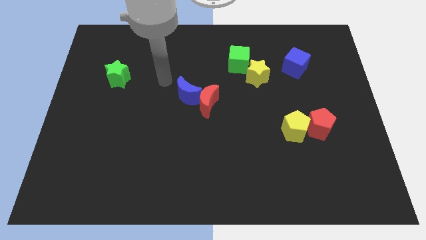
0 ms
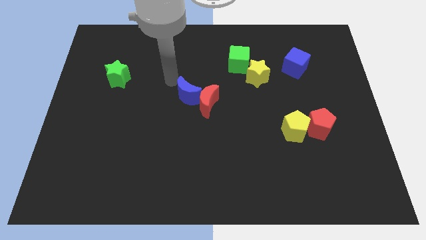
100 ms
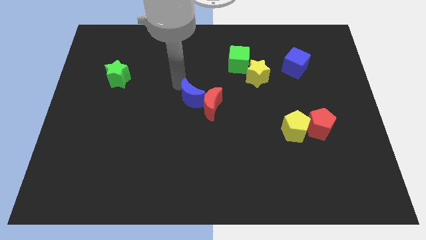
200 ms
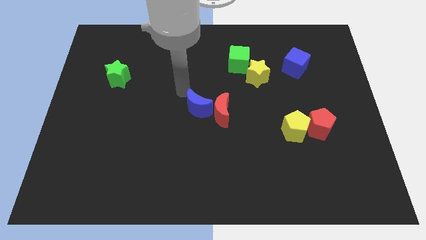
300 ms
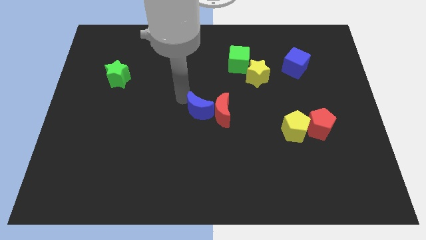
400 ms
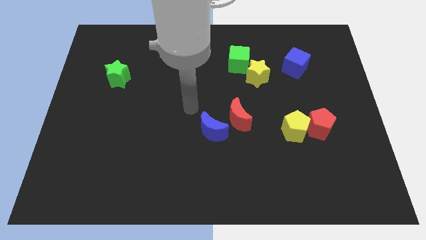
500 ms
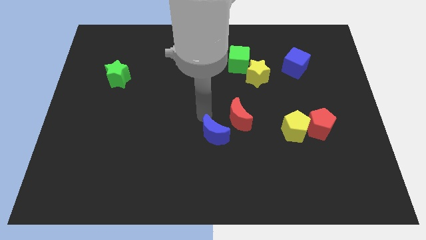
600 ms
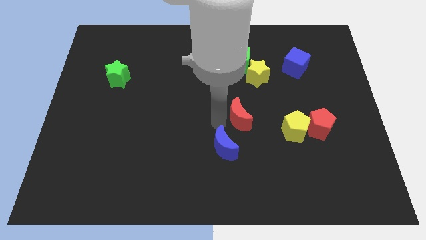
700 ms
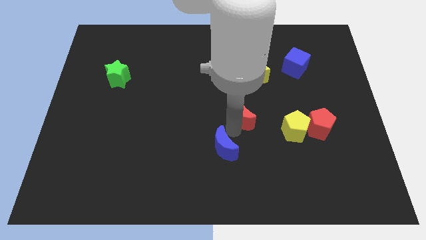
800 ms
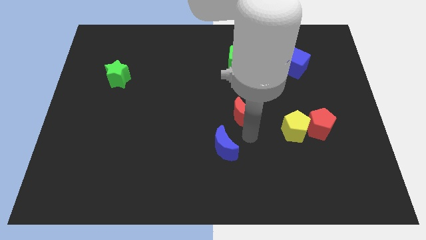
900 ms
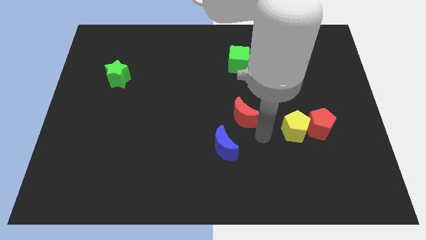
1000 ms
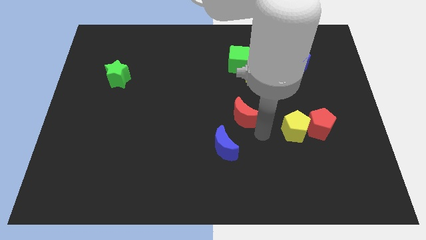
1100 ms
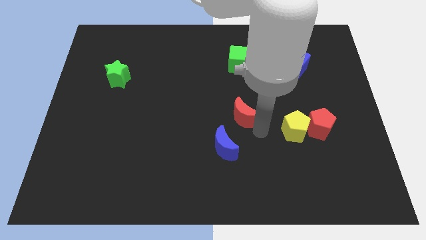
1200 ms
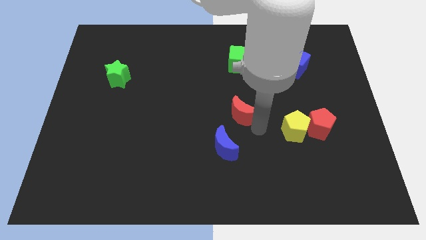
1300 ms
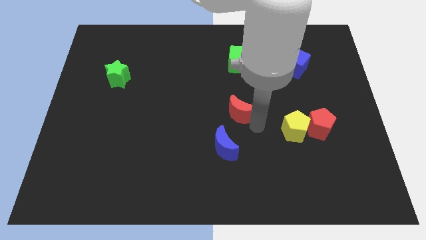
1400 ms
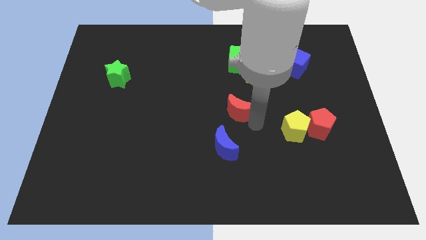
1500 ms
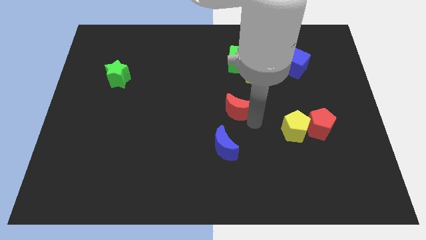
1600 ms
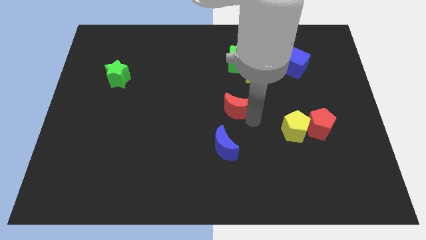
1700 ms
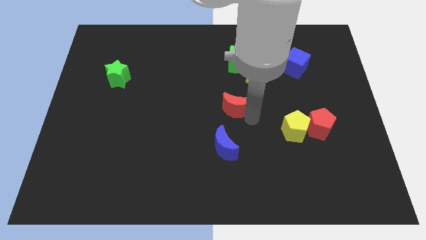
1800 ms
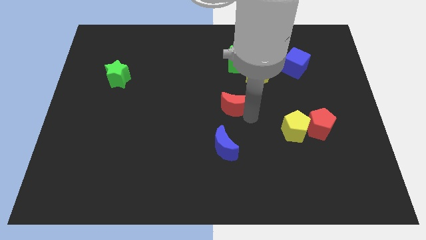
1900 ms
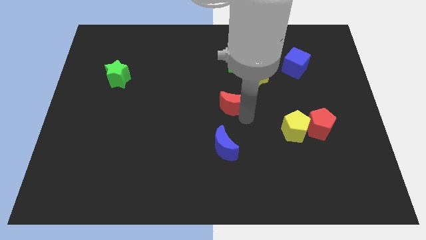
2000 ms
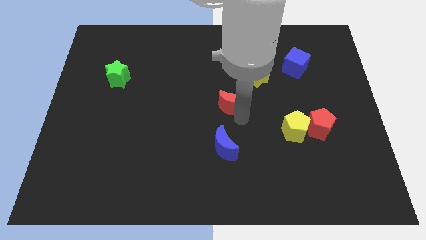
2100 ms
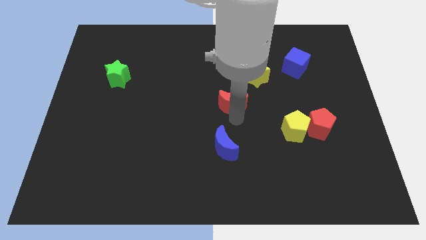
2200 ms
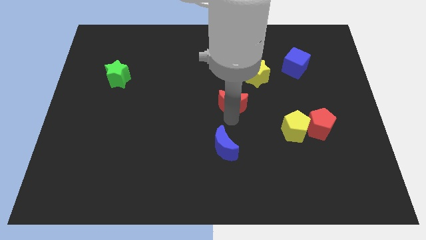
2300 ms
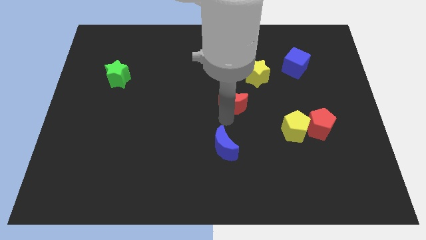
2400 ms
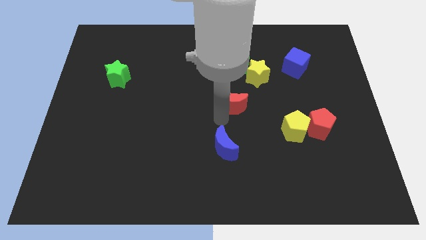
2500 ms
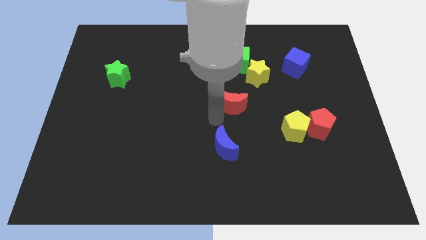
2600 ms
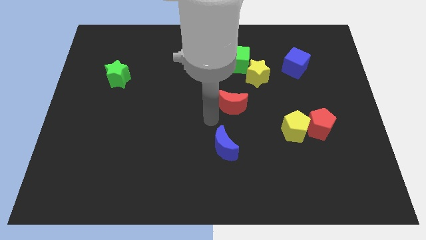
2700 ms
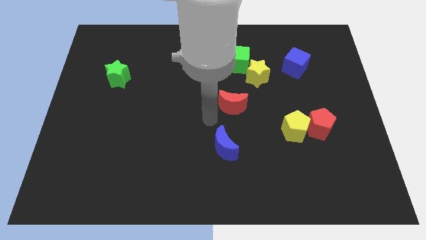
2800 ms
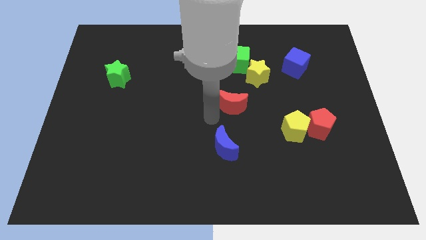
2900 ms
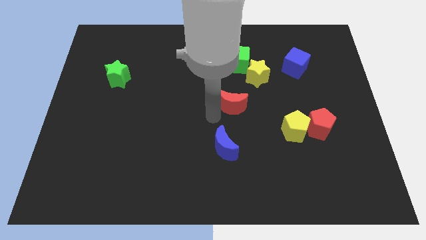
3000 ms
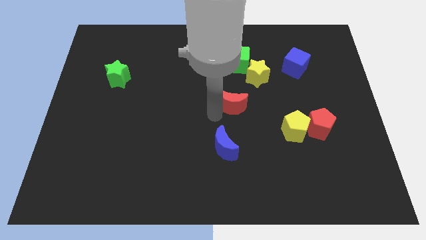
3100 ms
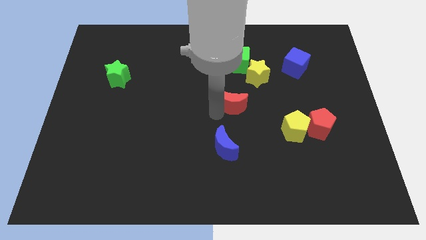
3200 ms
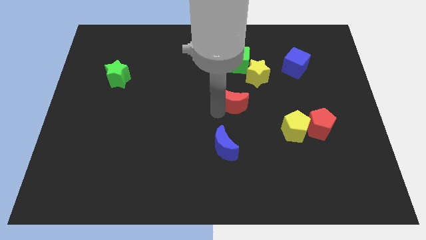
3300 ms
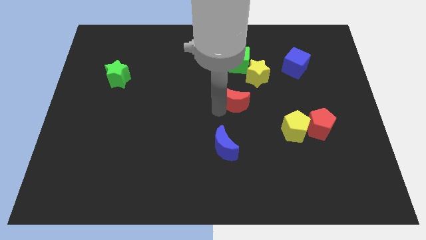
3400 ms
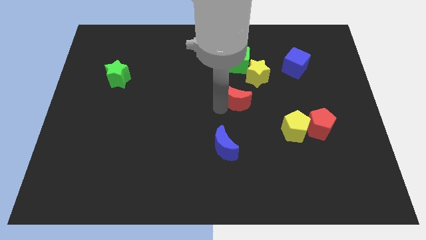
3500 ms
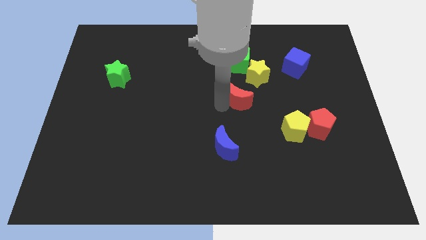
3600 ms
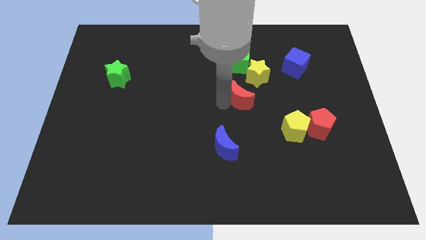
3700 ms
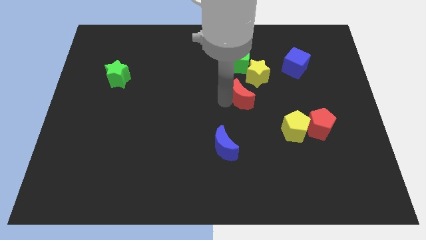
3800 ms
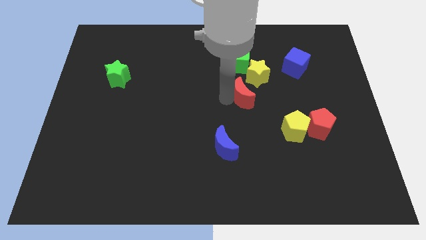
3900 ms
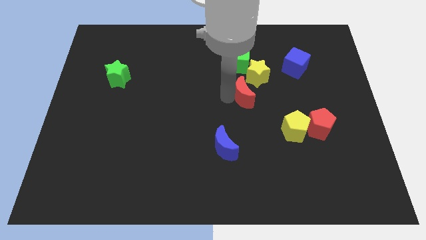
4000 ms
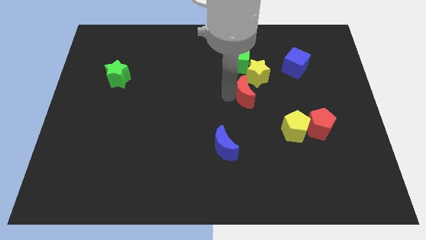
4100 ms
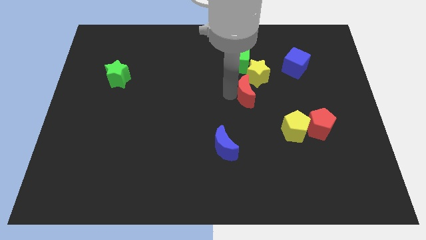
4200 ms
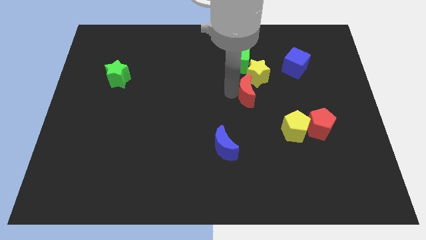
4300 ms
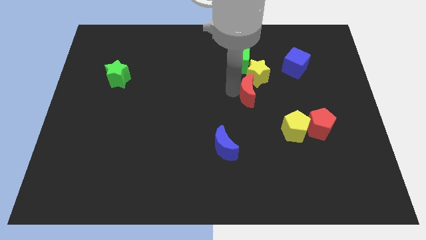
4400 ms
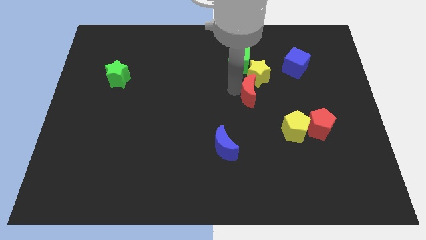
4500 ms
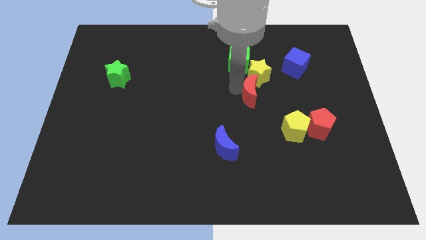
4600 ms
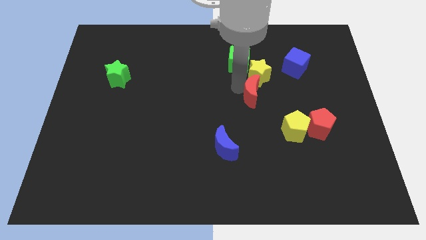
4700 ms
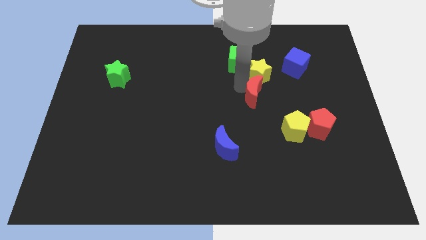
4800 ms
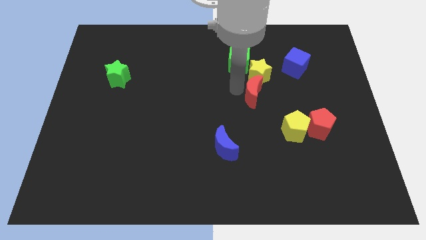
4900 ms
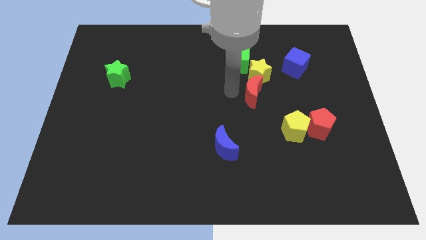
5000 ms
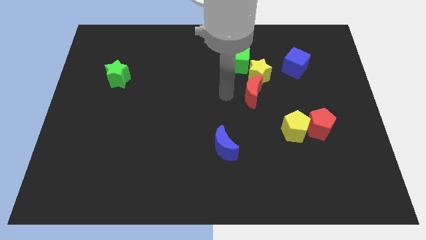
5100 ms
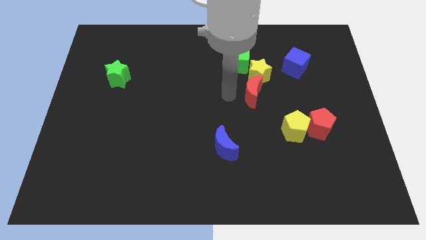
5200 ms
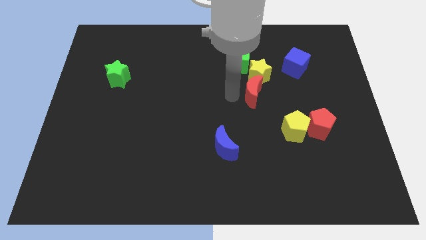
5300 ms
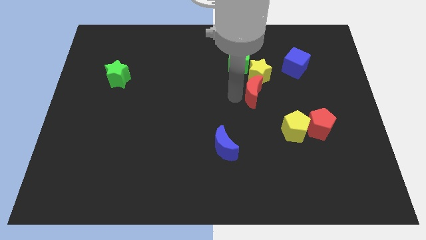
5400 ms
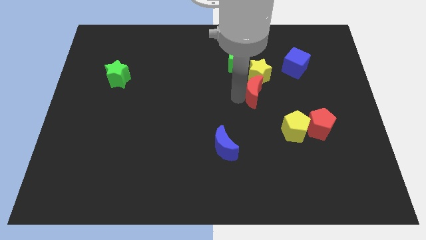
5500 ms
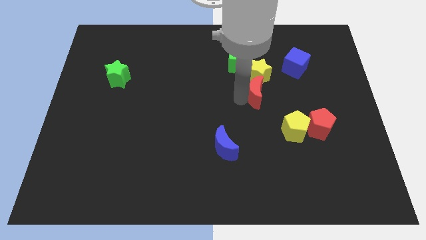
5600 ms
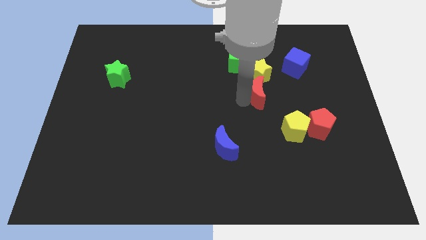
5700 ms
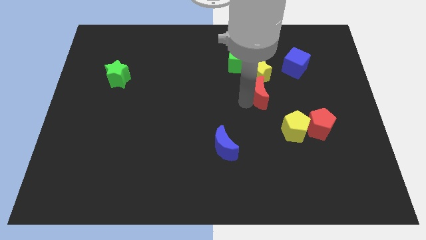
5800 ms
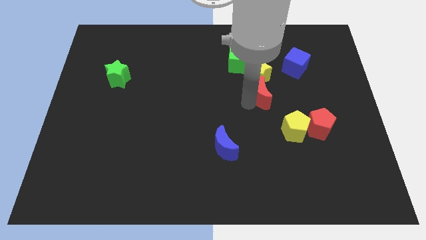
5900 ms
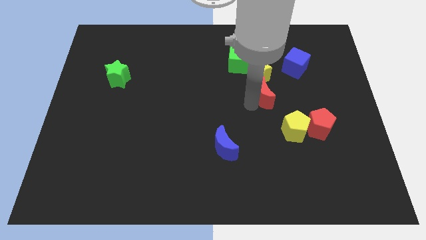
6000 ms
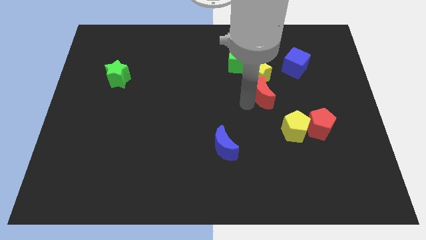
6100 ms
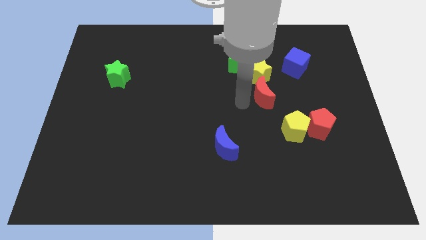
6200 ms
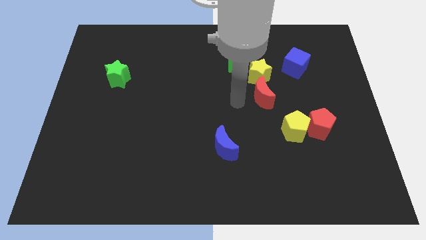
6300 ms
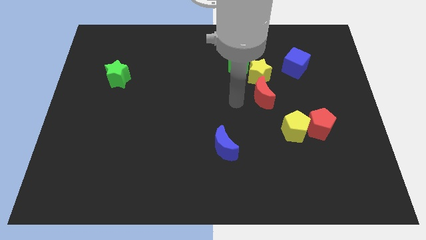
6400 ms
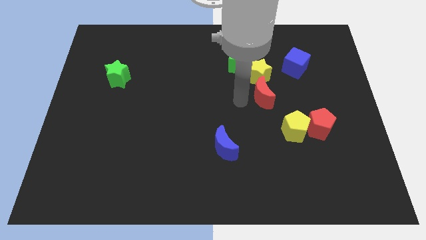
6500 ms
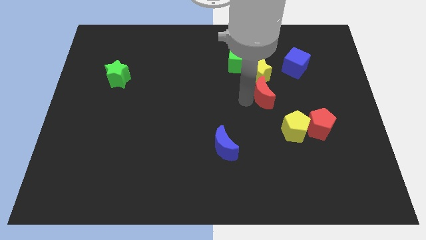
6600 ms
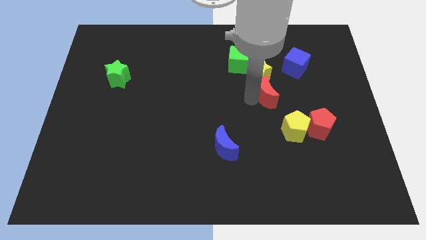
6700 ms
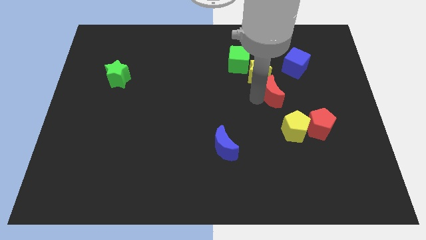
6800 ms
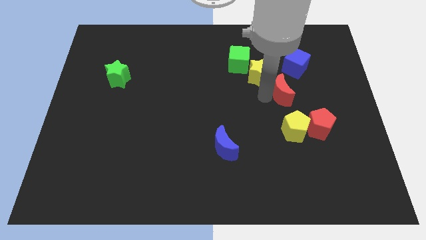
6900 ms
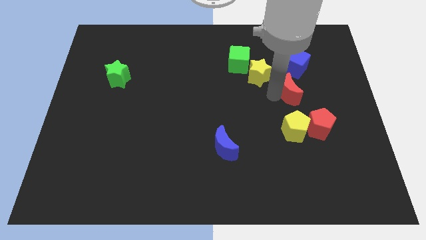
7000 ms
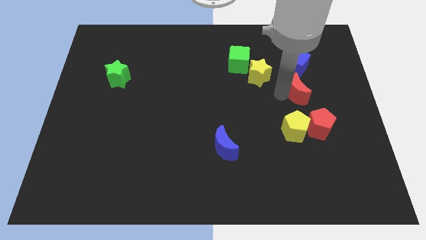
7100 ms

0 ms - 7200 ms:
move the red moon to the top side of the red pentagon
